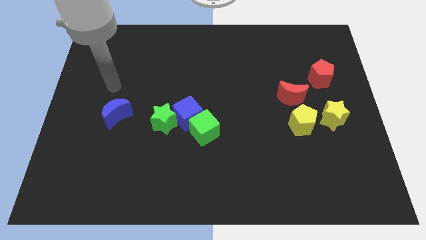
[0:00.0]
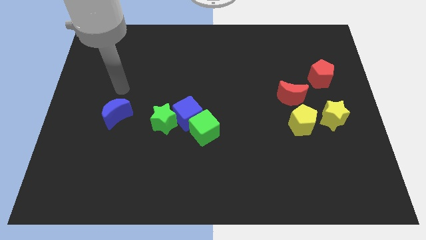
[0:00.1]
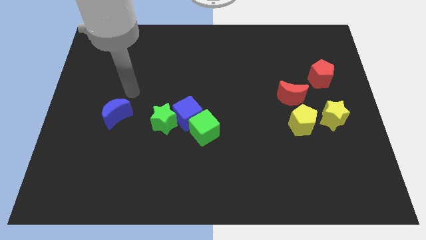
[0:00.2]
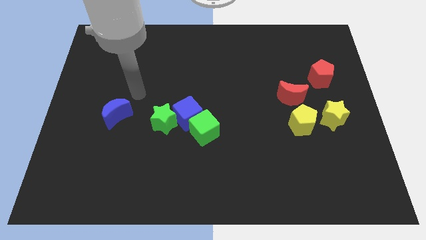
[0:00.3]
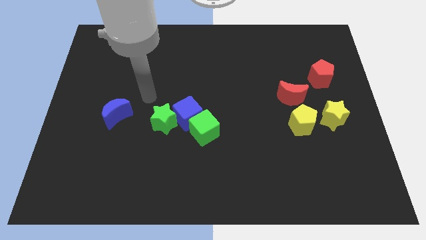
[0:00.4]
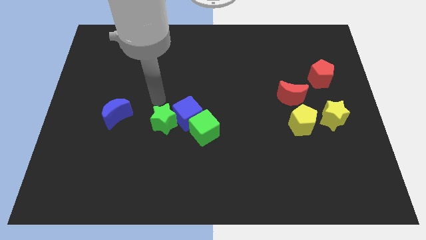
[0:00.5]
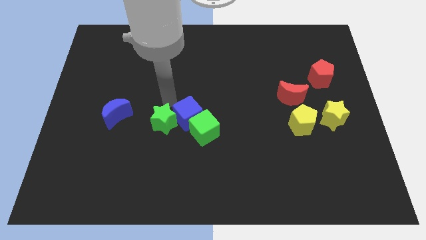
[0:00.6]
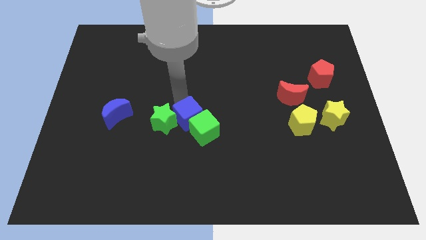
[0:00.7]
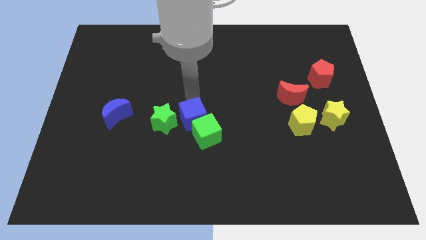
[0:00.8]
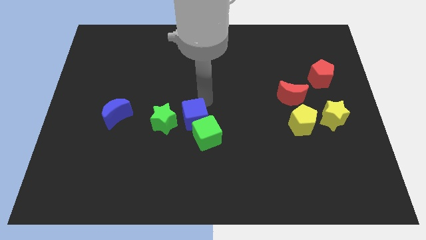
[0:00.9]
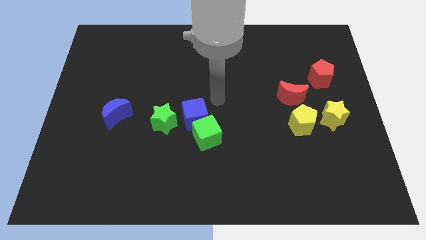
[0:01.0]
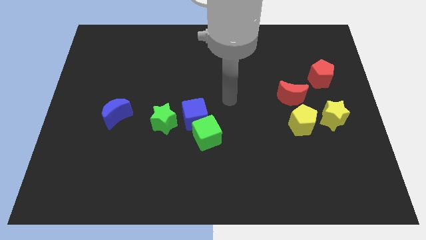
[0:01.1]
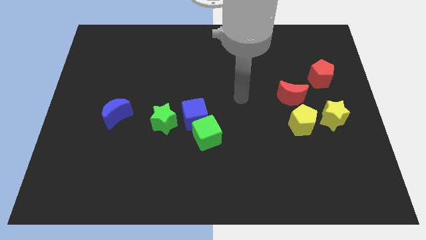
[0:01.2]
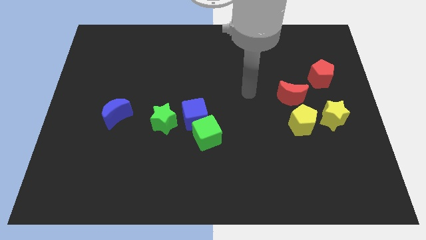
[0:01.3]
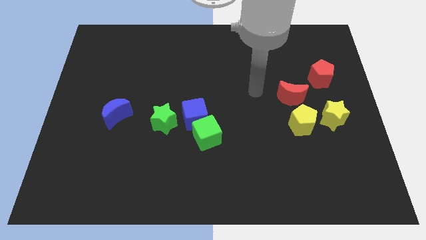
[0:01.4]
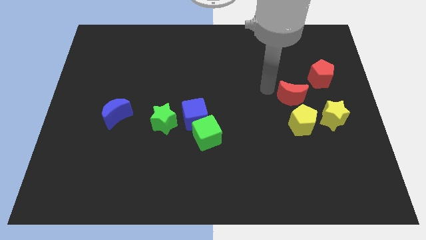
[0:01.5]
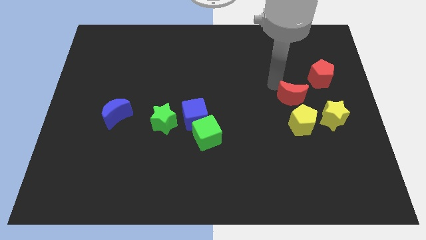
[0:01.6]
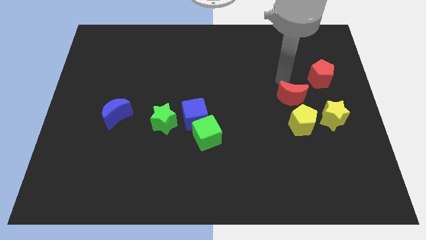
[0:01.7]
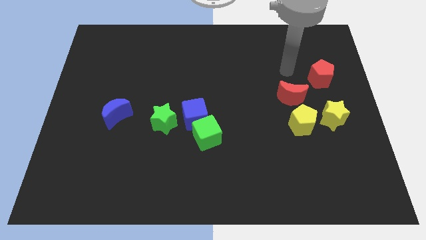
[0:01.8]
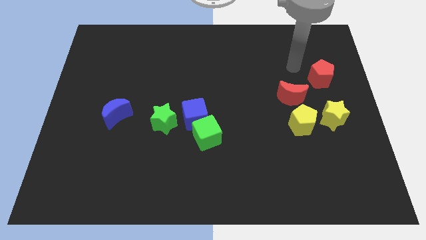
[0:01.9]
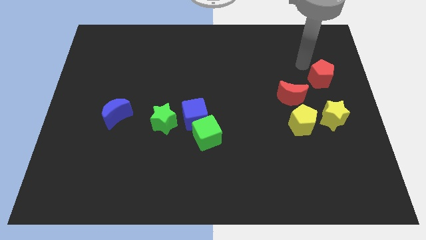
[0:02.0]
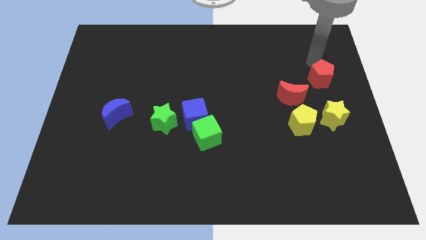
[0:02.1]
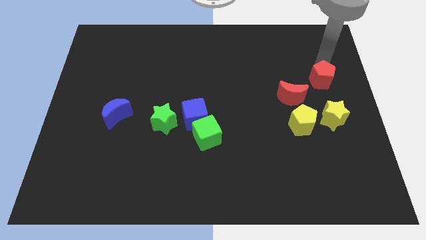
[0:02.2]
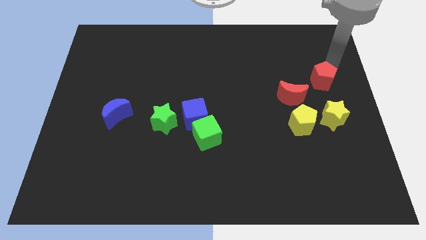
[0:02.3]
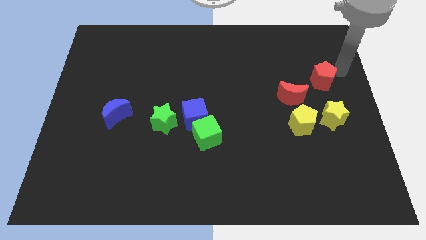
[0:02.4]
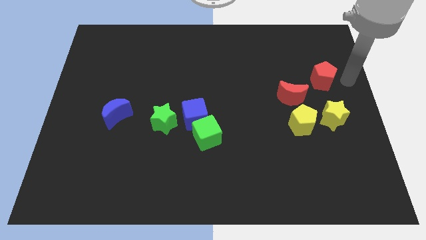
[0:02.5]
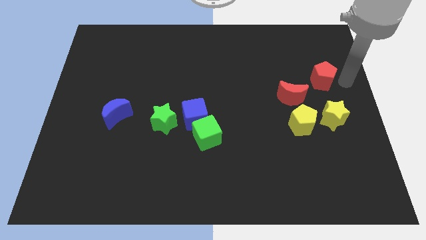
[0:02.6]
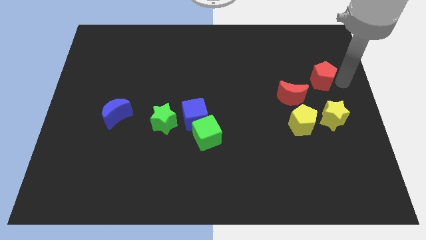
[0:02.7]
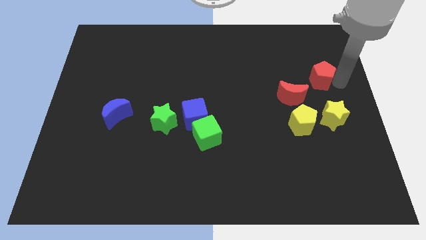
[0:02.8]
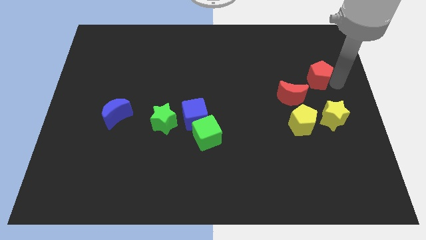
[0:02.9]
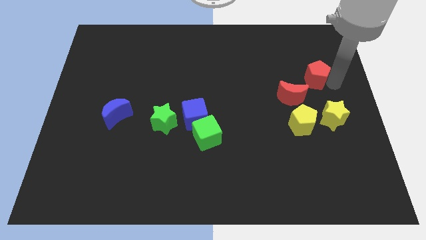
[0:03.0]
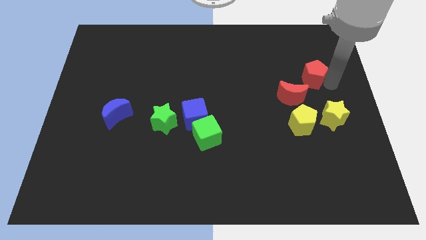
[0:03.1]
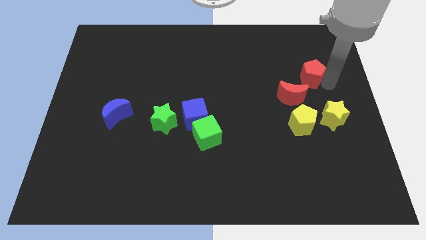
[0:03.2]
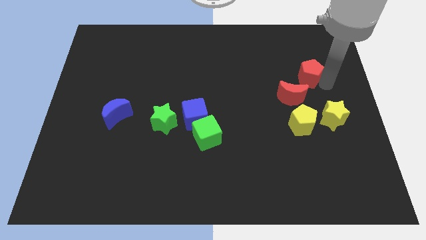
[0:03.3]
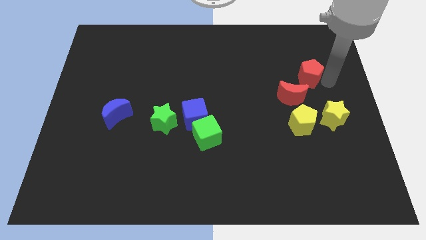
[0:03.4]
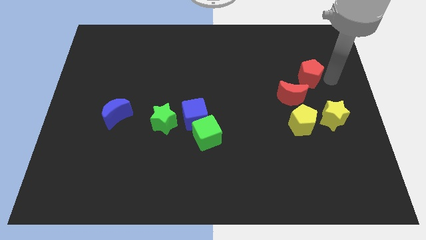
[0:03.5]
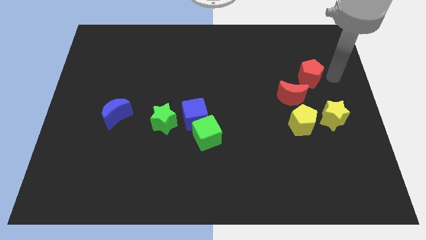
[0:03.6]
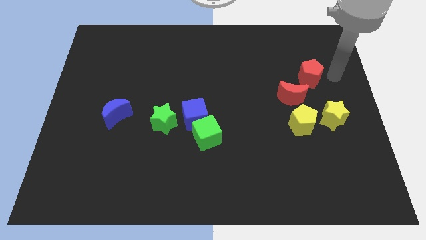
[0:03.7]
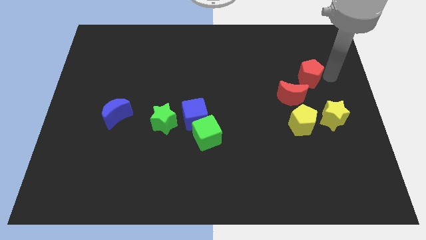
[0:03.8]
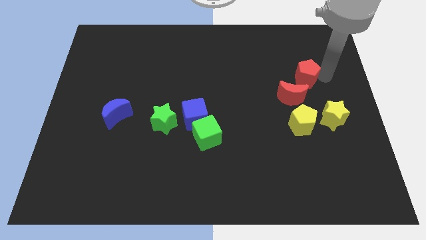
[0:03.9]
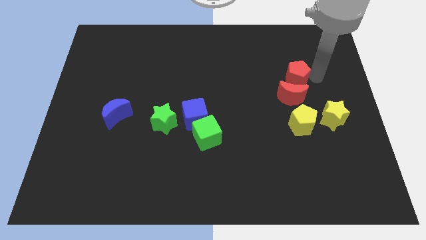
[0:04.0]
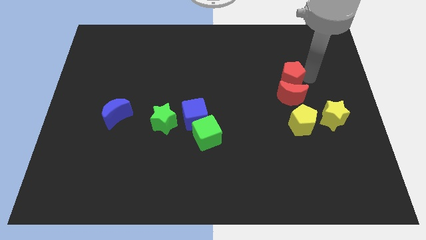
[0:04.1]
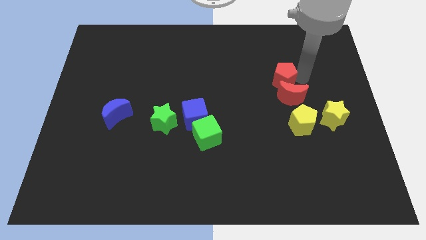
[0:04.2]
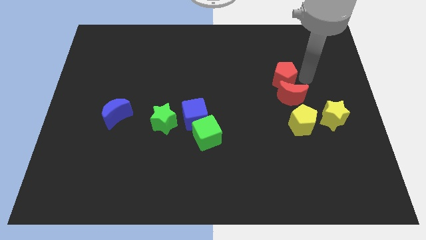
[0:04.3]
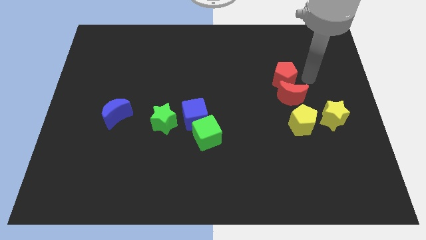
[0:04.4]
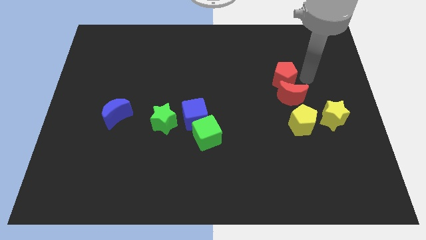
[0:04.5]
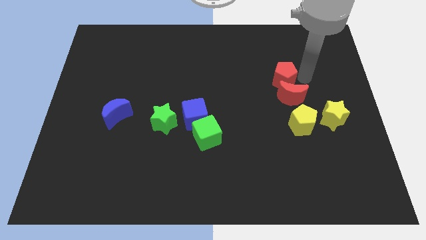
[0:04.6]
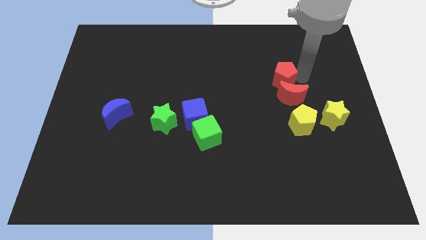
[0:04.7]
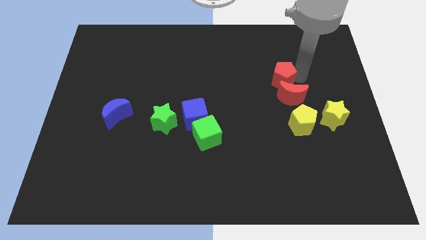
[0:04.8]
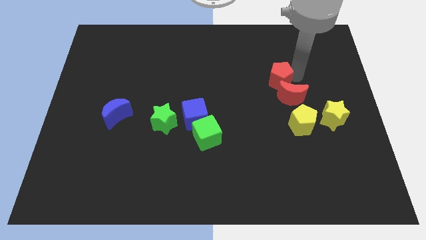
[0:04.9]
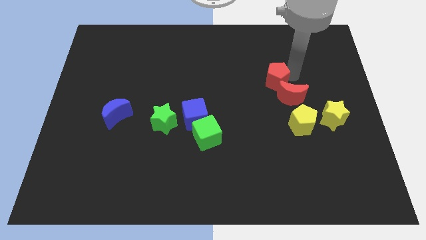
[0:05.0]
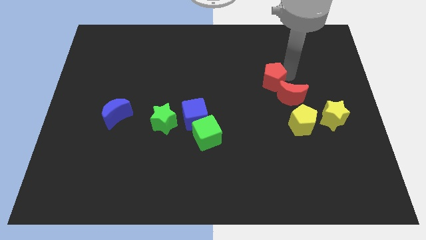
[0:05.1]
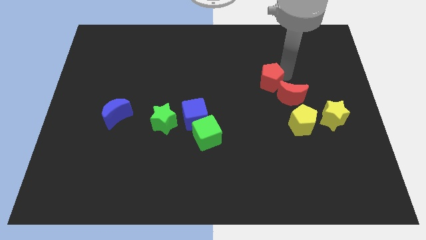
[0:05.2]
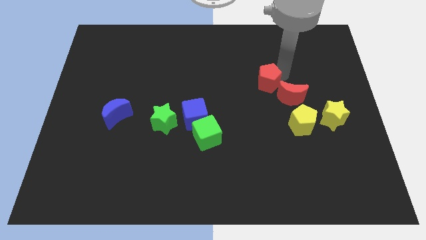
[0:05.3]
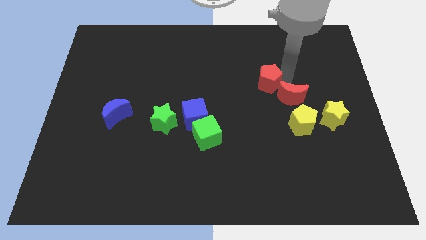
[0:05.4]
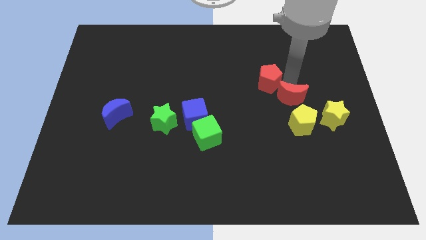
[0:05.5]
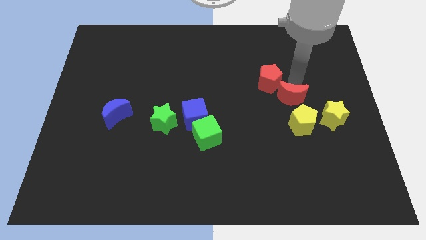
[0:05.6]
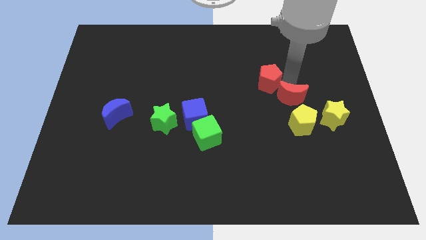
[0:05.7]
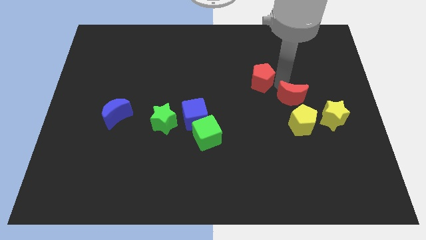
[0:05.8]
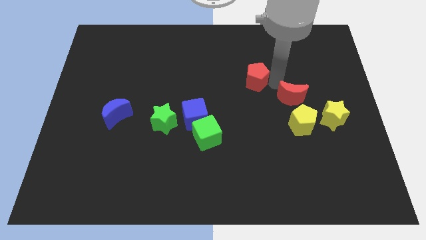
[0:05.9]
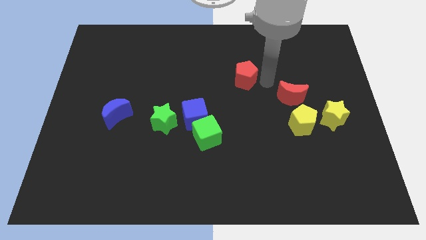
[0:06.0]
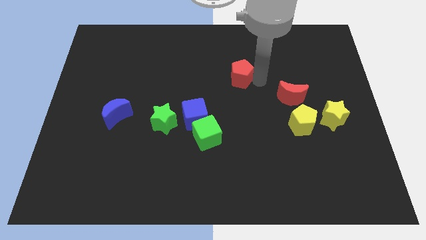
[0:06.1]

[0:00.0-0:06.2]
push the red pentagon to the left

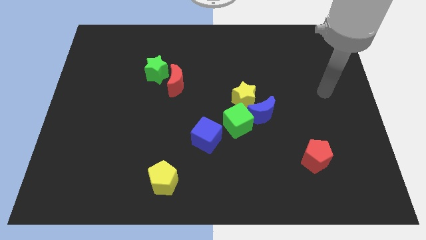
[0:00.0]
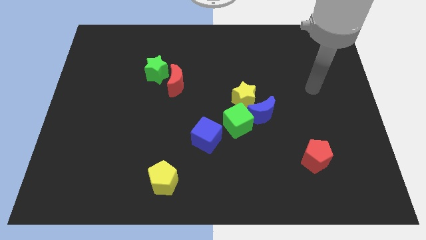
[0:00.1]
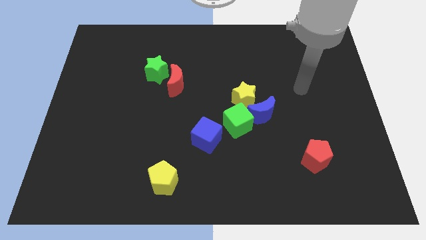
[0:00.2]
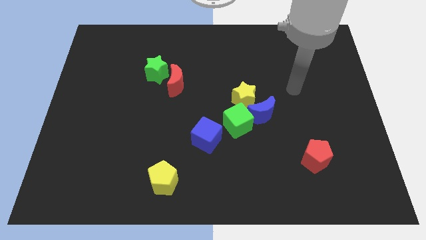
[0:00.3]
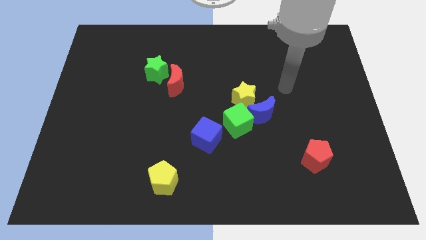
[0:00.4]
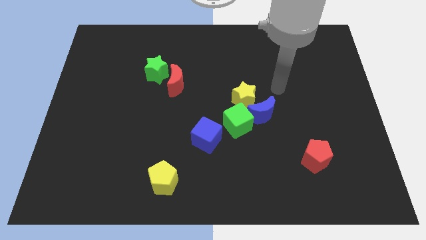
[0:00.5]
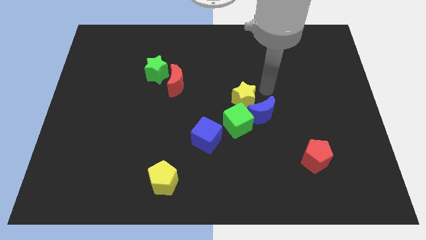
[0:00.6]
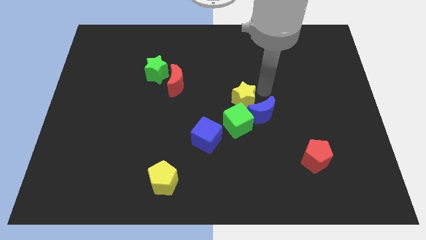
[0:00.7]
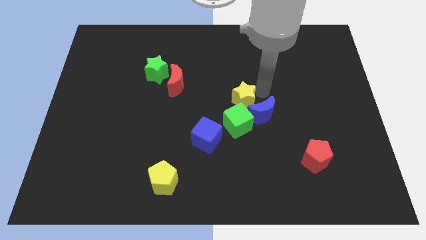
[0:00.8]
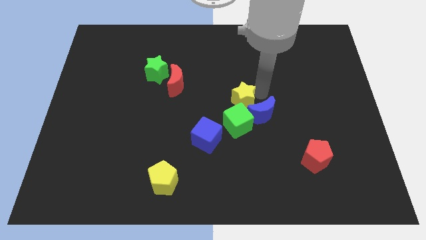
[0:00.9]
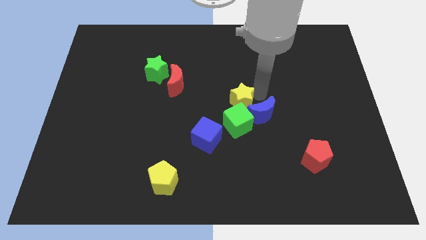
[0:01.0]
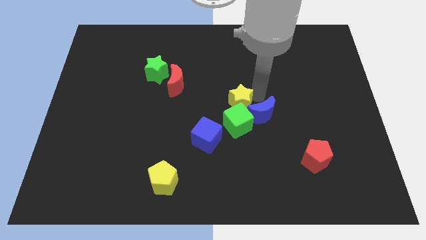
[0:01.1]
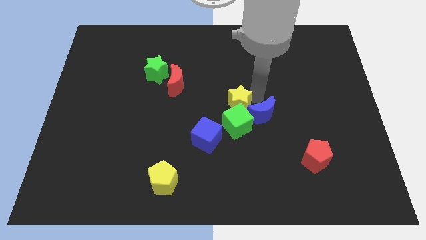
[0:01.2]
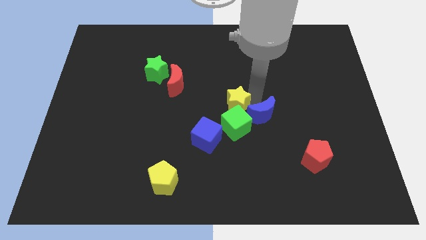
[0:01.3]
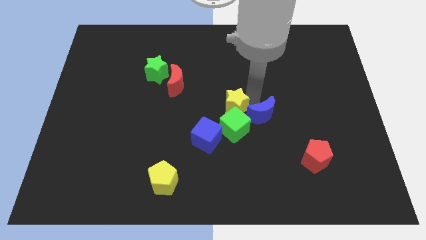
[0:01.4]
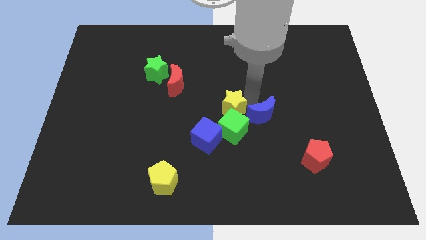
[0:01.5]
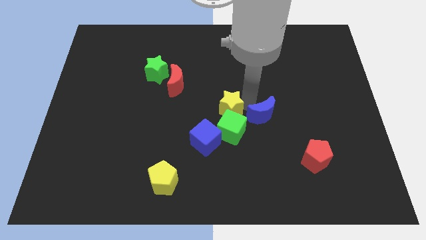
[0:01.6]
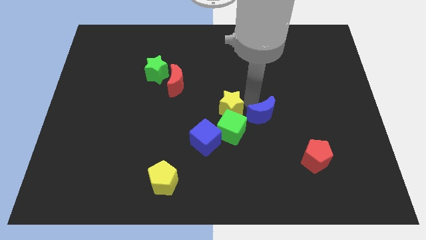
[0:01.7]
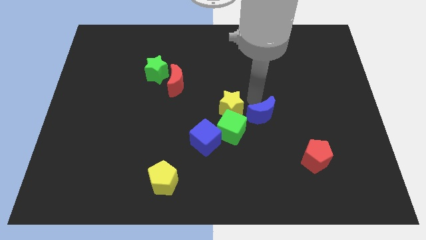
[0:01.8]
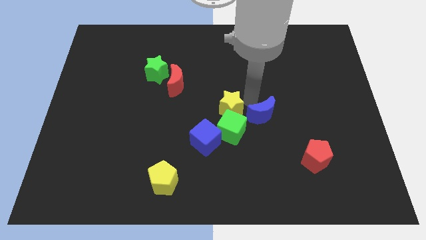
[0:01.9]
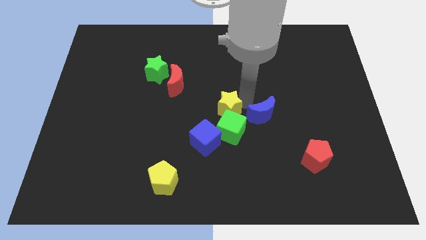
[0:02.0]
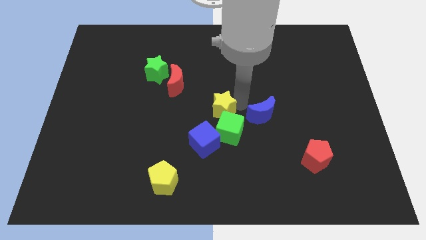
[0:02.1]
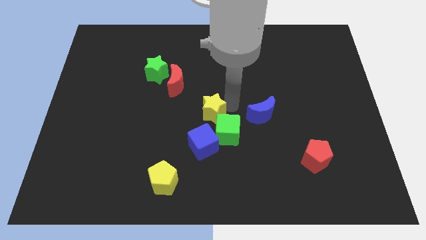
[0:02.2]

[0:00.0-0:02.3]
push the yellow star down and then left a little bit

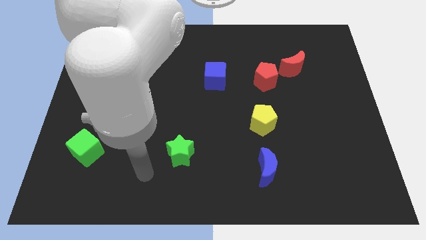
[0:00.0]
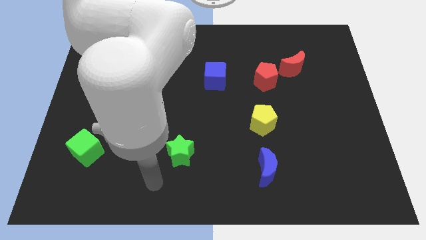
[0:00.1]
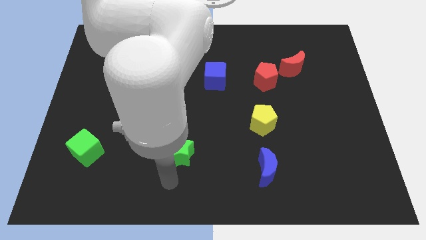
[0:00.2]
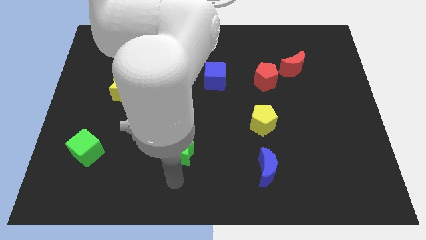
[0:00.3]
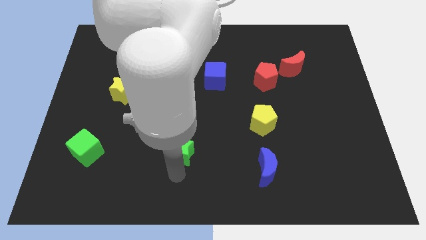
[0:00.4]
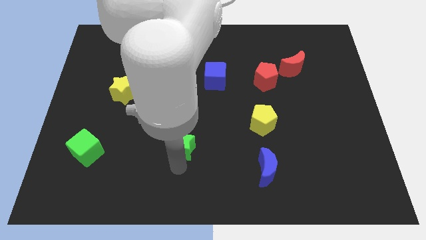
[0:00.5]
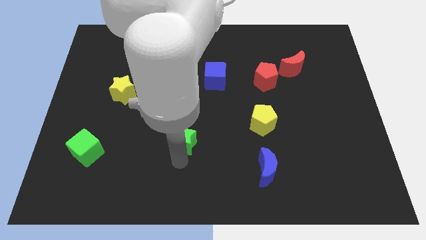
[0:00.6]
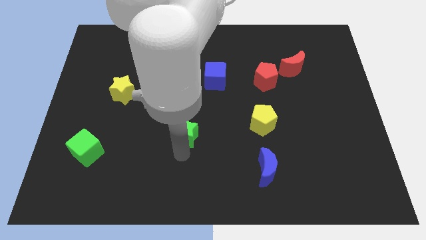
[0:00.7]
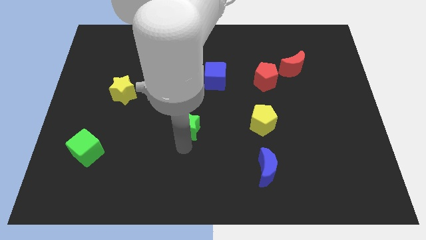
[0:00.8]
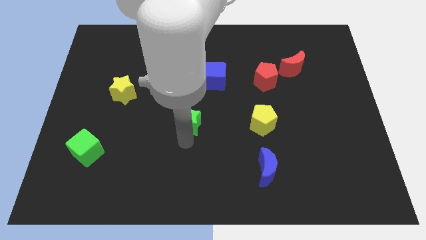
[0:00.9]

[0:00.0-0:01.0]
slide the green star up a little bit
